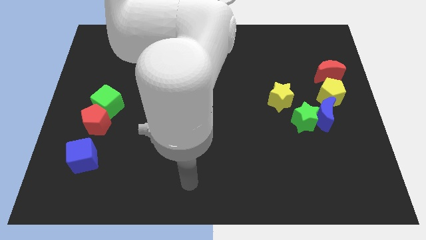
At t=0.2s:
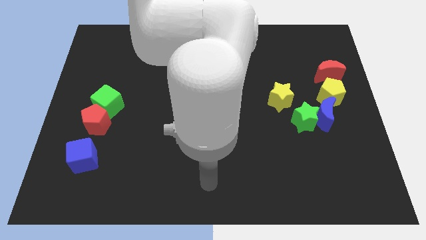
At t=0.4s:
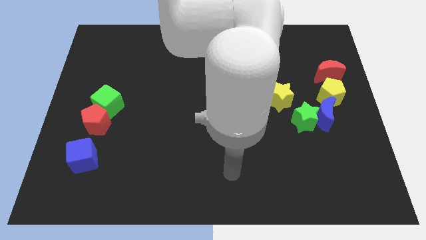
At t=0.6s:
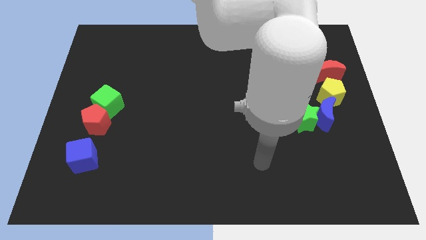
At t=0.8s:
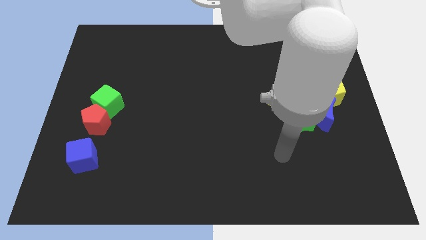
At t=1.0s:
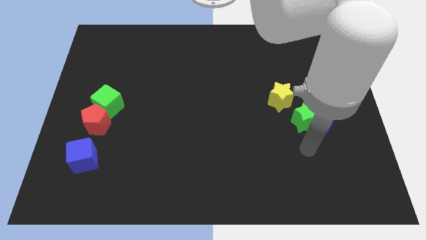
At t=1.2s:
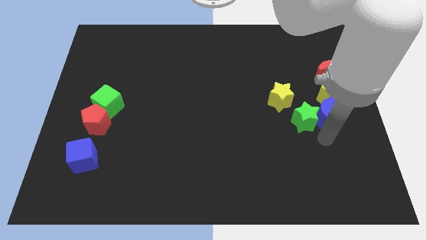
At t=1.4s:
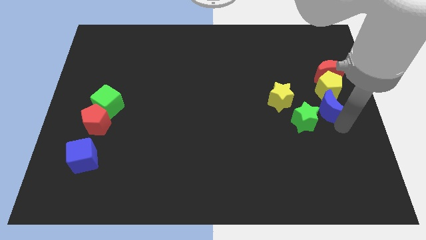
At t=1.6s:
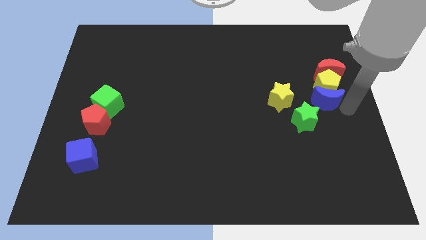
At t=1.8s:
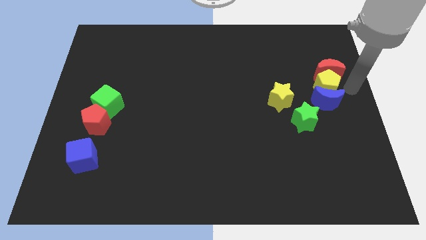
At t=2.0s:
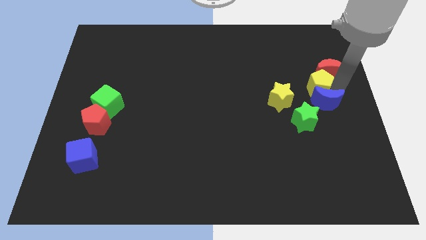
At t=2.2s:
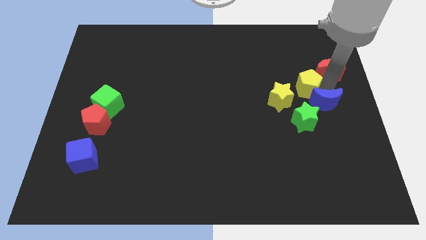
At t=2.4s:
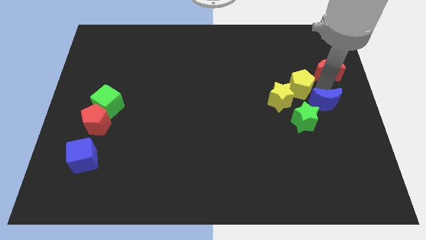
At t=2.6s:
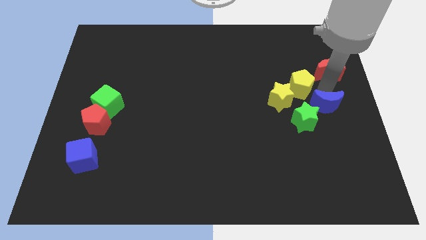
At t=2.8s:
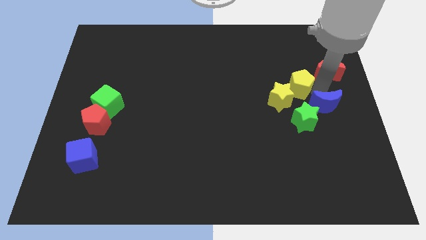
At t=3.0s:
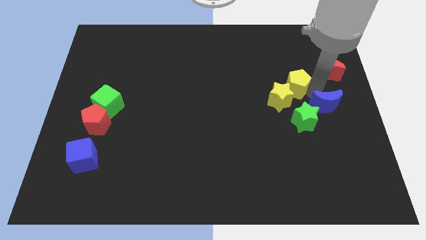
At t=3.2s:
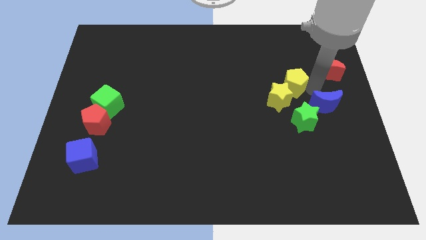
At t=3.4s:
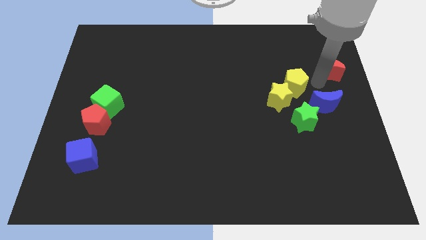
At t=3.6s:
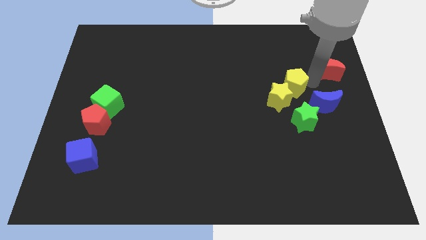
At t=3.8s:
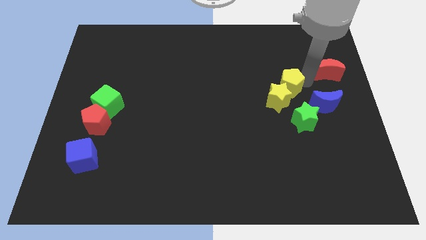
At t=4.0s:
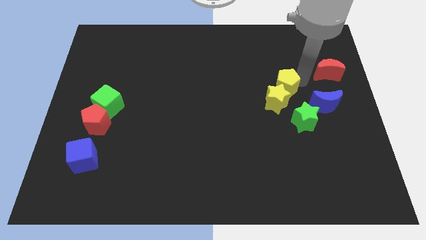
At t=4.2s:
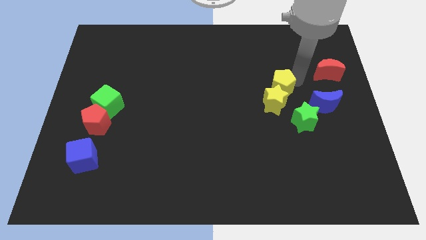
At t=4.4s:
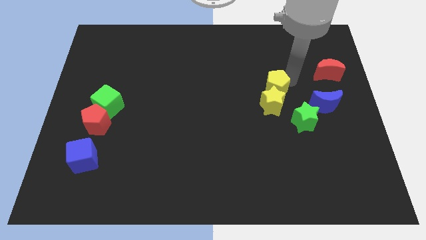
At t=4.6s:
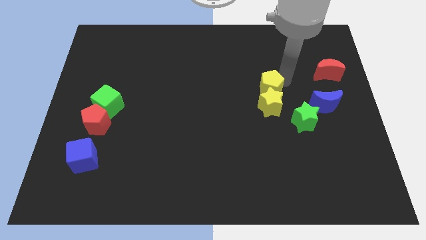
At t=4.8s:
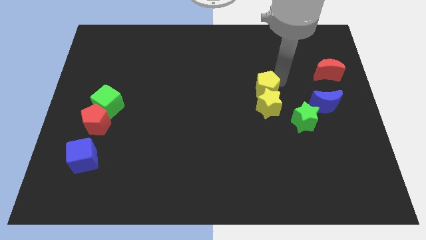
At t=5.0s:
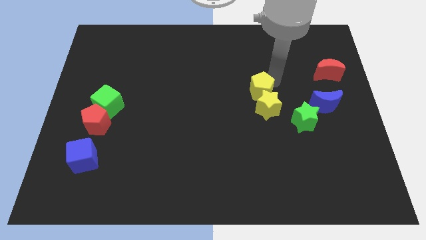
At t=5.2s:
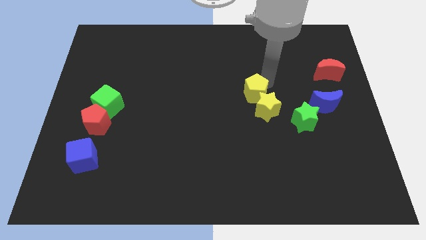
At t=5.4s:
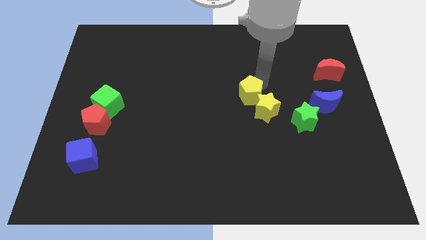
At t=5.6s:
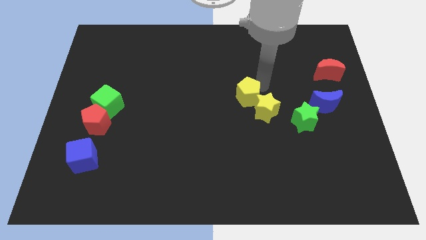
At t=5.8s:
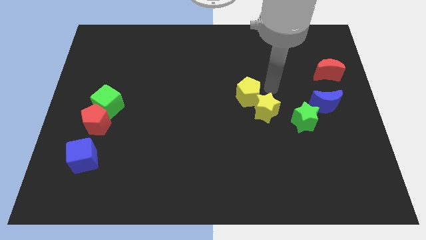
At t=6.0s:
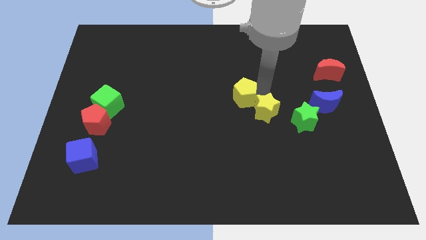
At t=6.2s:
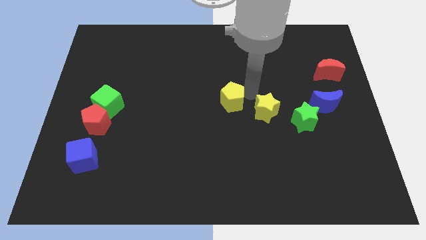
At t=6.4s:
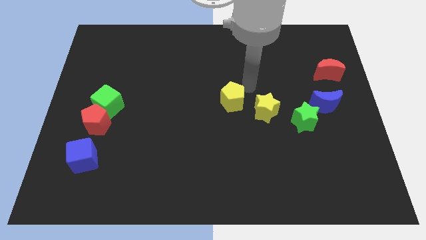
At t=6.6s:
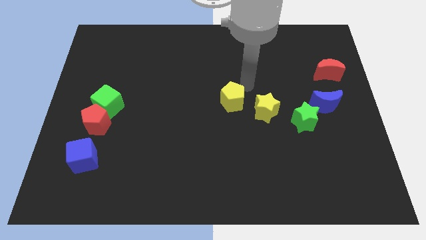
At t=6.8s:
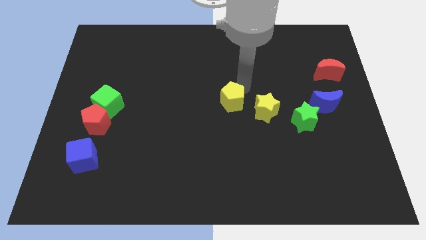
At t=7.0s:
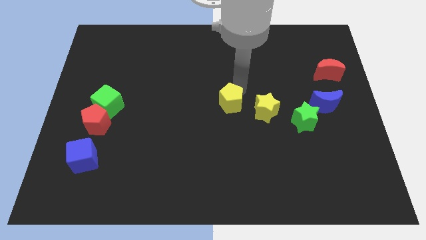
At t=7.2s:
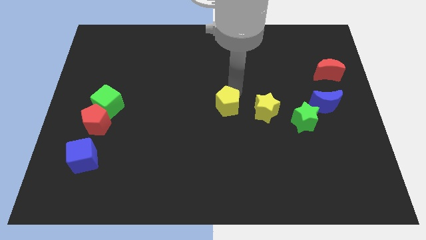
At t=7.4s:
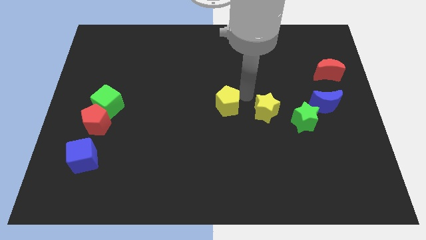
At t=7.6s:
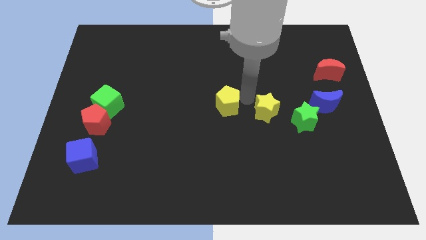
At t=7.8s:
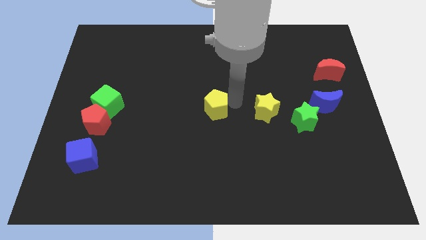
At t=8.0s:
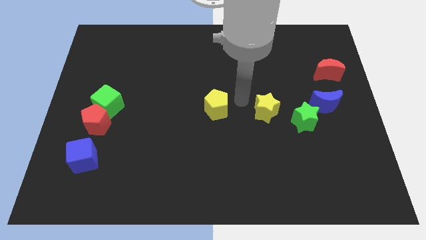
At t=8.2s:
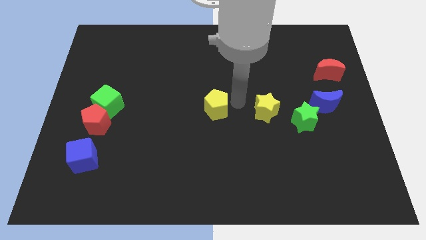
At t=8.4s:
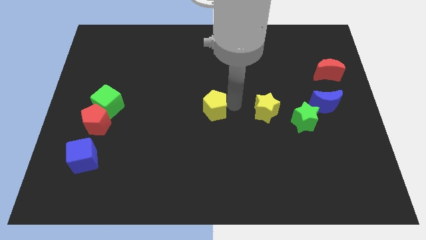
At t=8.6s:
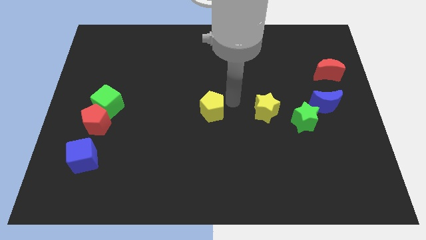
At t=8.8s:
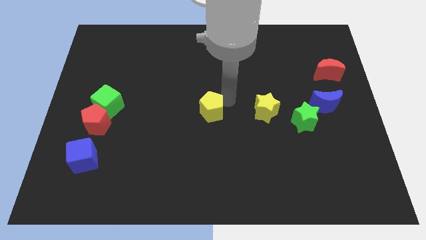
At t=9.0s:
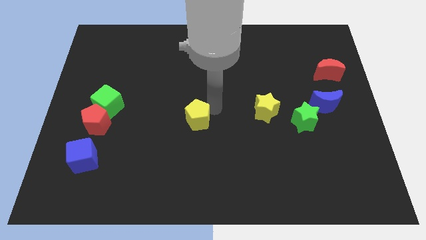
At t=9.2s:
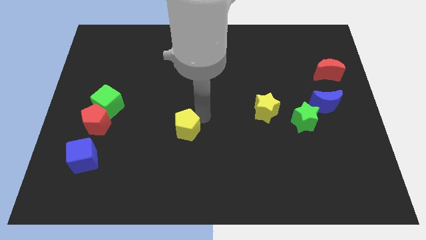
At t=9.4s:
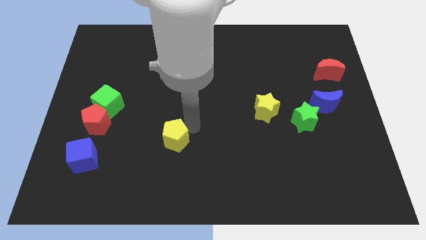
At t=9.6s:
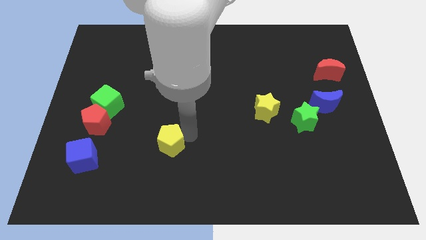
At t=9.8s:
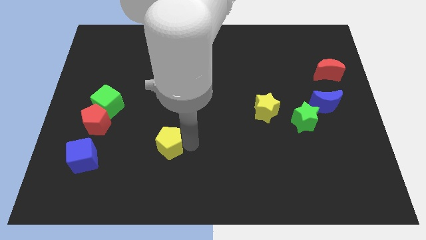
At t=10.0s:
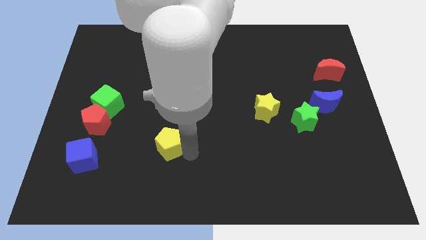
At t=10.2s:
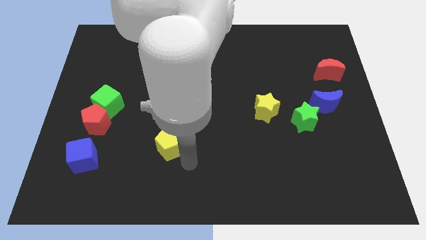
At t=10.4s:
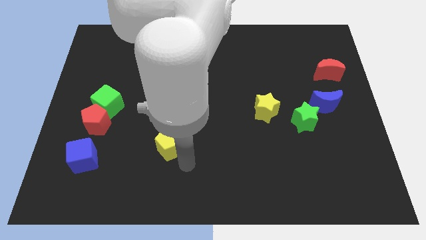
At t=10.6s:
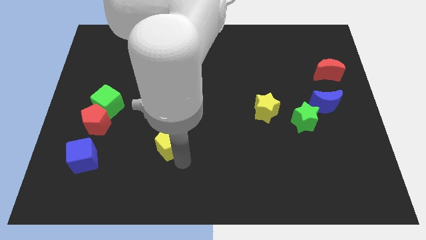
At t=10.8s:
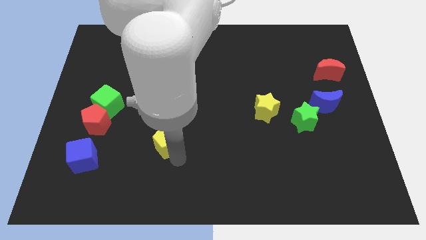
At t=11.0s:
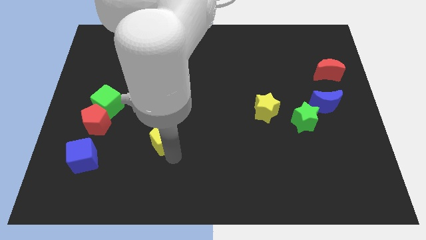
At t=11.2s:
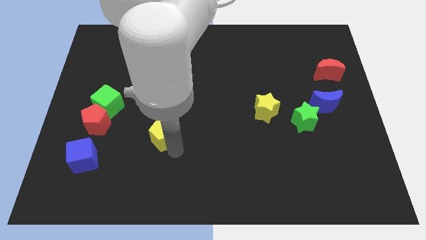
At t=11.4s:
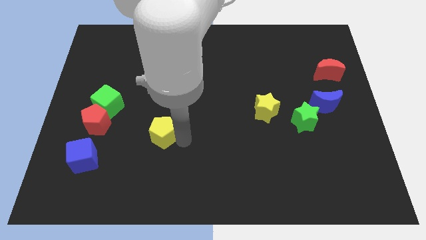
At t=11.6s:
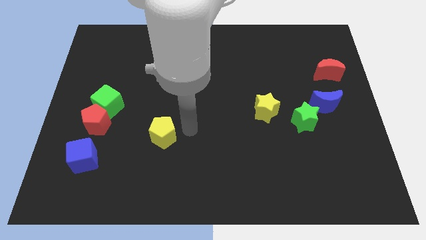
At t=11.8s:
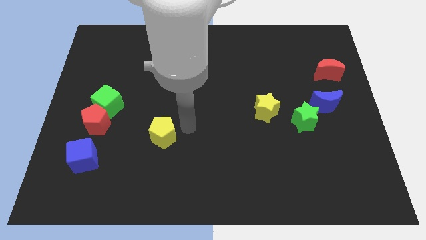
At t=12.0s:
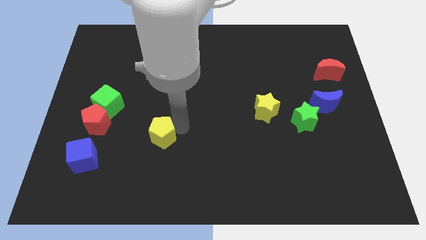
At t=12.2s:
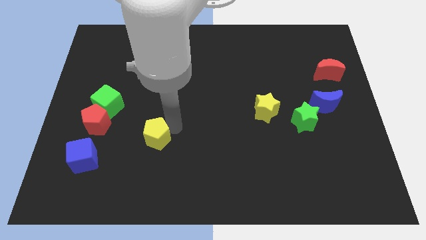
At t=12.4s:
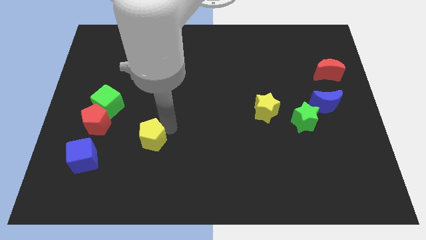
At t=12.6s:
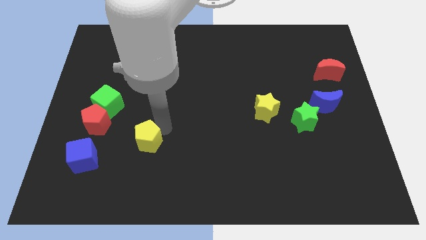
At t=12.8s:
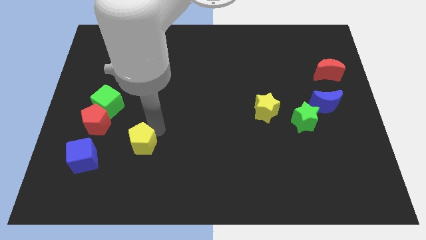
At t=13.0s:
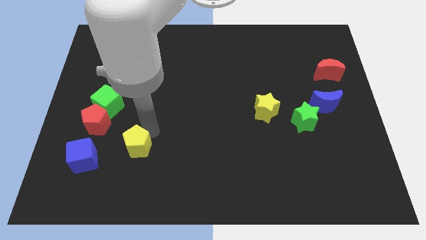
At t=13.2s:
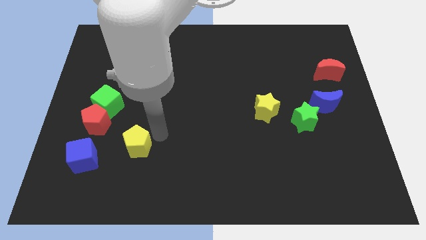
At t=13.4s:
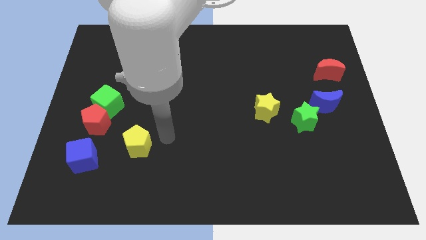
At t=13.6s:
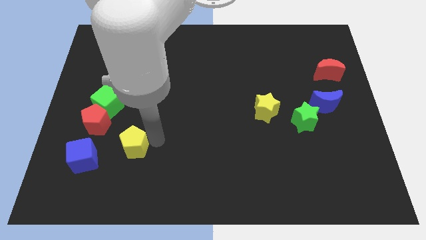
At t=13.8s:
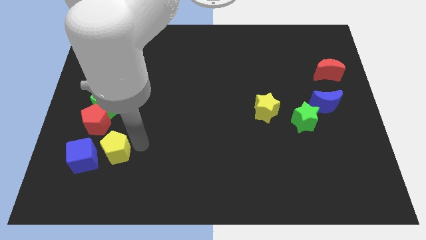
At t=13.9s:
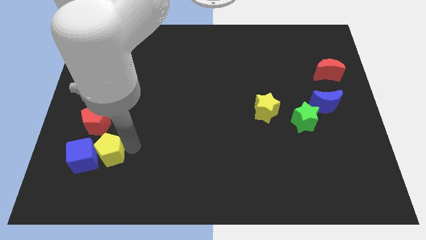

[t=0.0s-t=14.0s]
push the yellow pentagon to the blue cube
